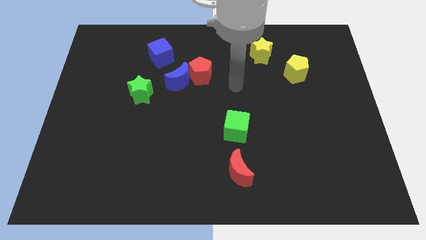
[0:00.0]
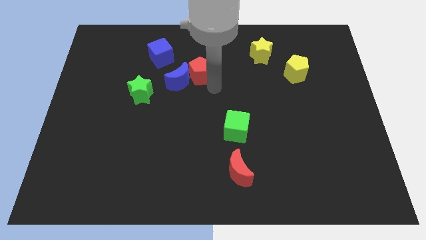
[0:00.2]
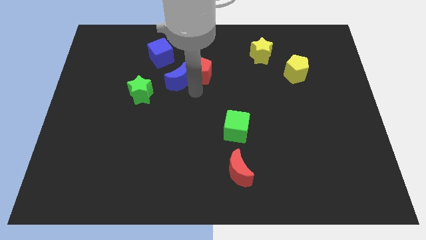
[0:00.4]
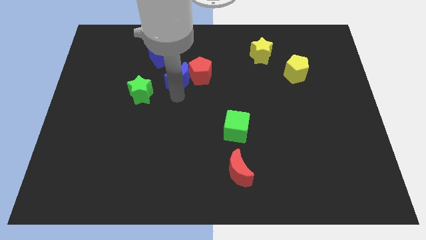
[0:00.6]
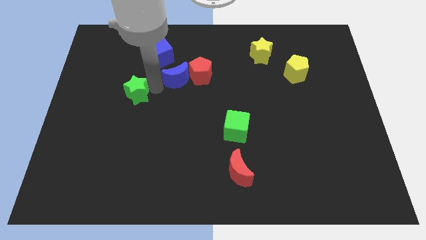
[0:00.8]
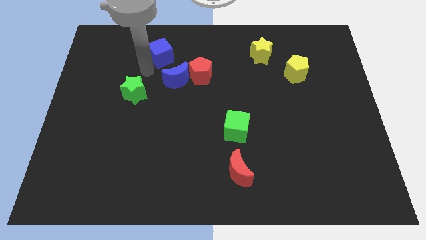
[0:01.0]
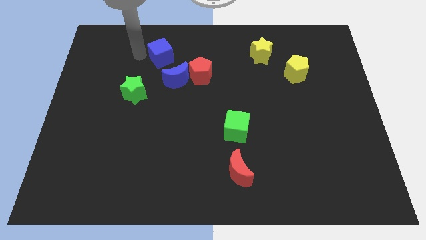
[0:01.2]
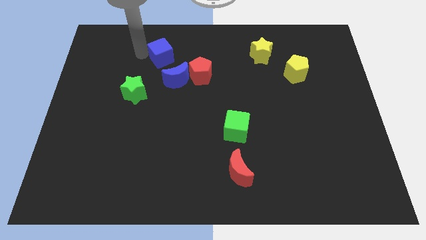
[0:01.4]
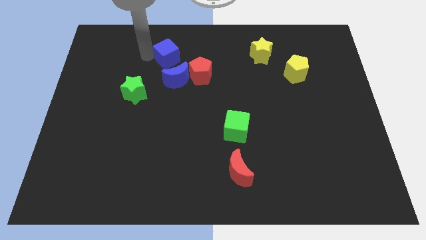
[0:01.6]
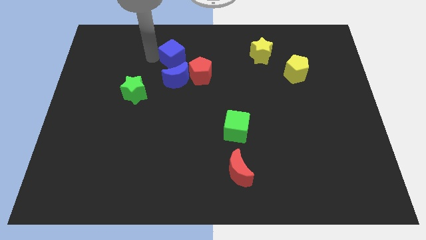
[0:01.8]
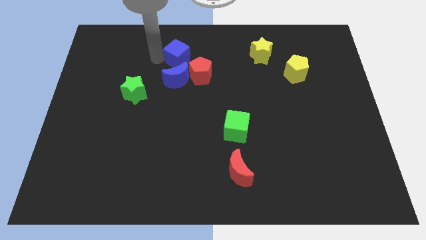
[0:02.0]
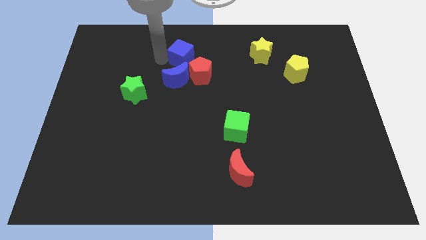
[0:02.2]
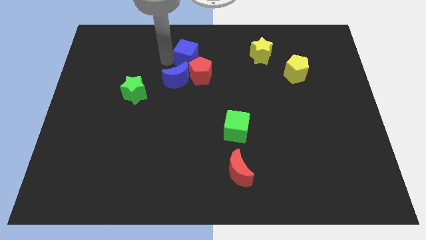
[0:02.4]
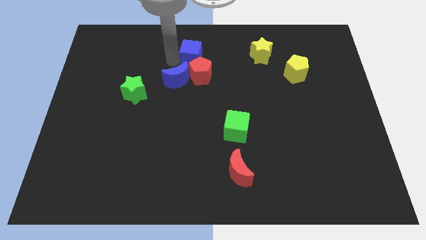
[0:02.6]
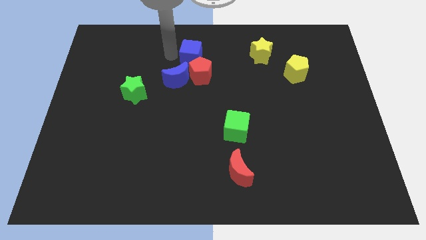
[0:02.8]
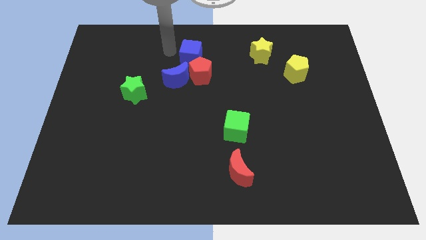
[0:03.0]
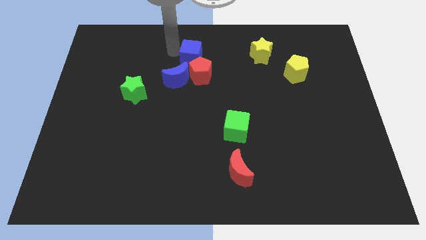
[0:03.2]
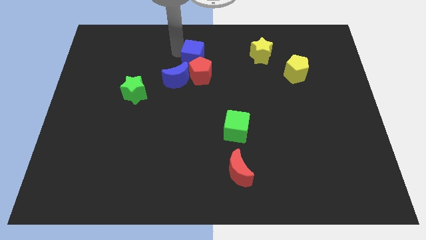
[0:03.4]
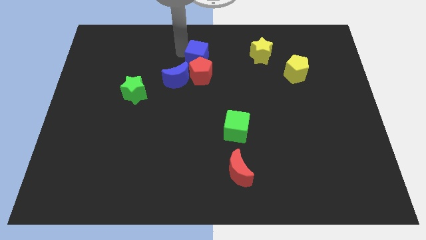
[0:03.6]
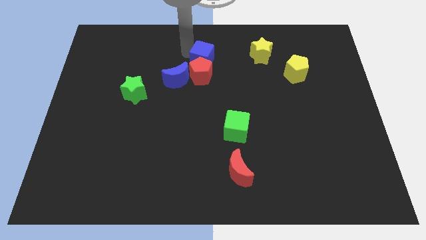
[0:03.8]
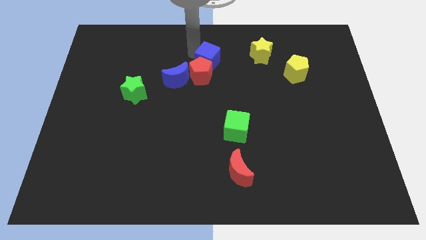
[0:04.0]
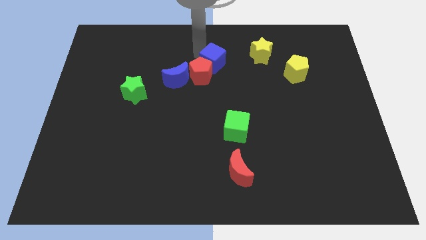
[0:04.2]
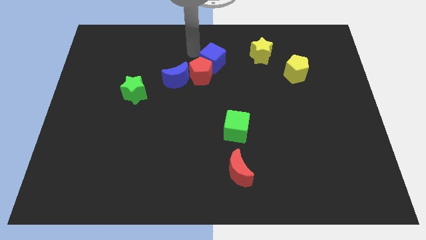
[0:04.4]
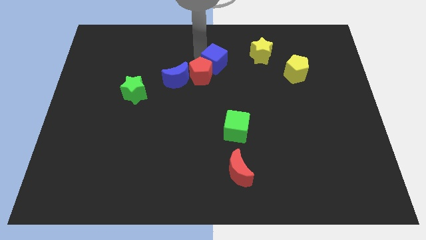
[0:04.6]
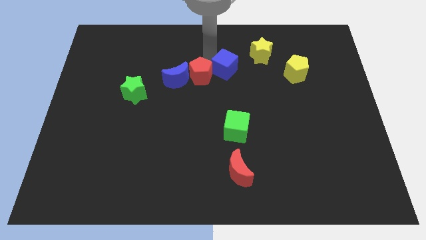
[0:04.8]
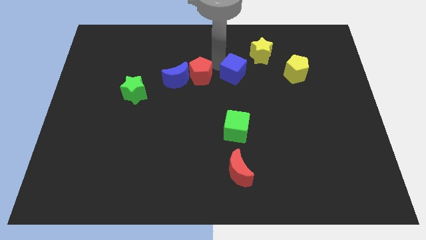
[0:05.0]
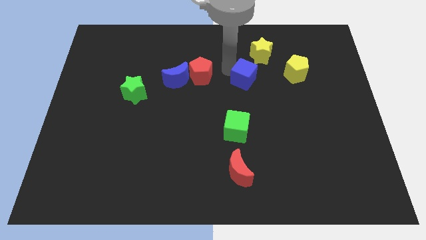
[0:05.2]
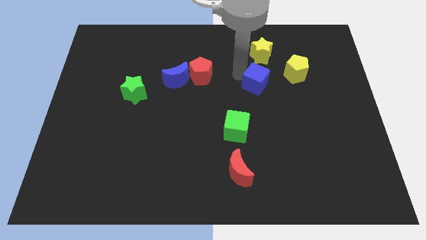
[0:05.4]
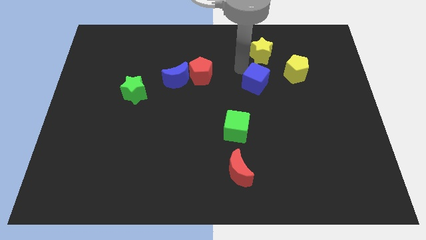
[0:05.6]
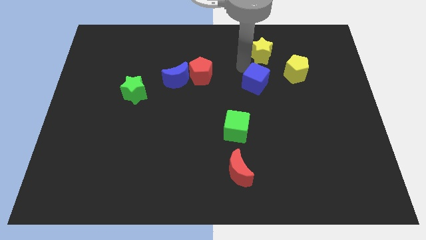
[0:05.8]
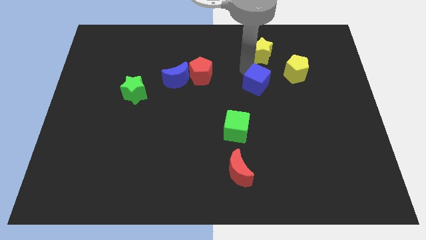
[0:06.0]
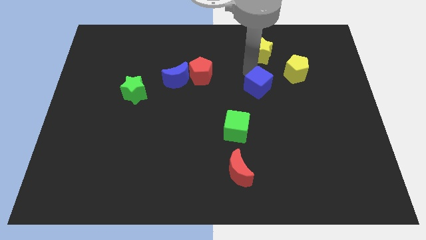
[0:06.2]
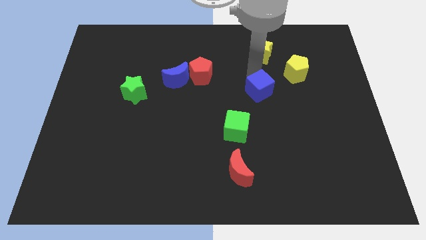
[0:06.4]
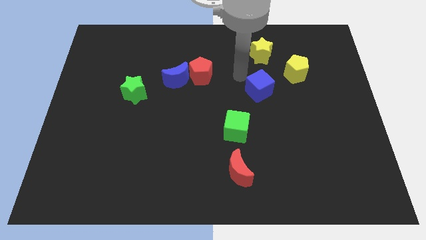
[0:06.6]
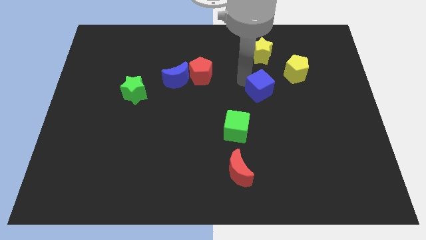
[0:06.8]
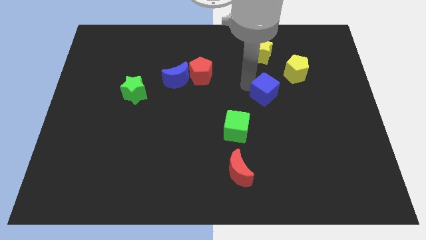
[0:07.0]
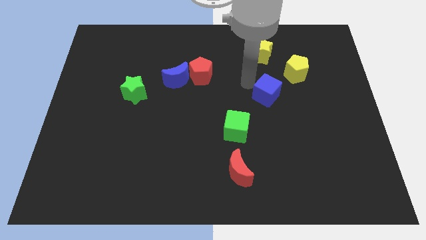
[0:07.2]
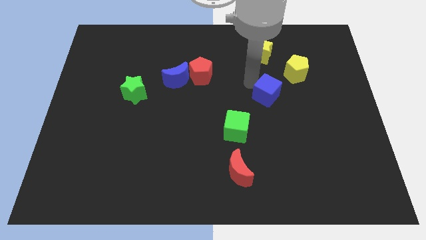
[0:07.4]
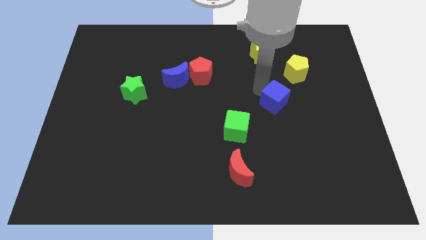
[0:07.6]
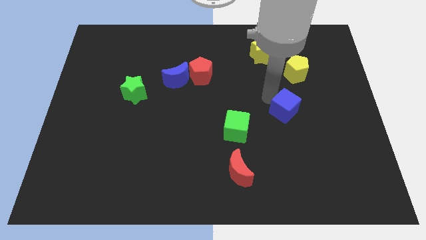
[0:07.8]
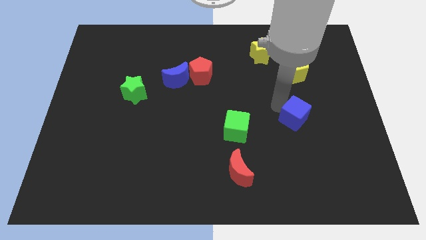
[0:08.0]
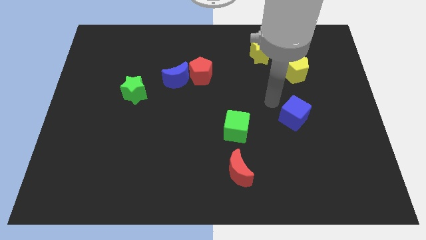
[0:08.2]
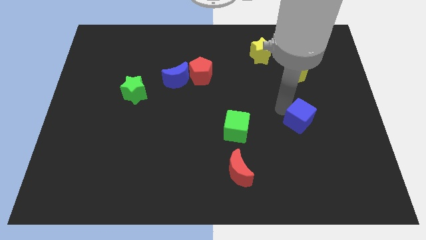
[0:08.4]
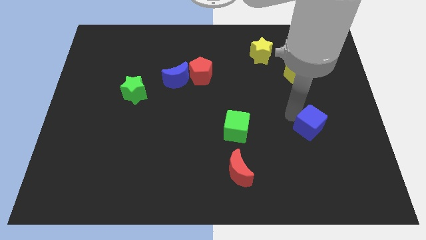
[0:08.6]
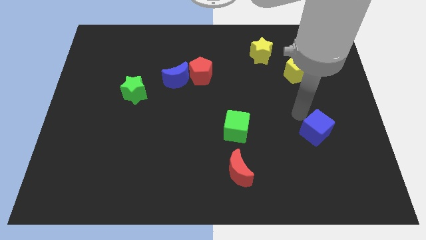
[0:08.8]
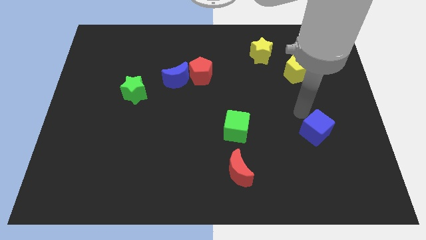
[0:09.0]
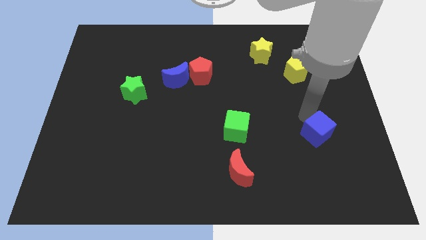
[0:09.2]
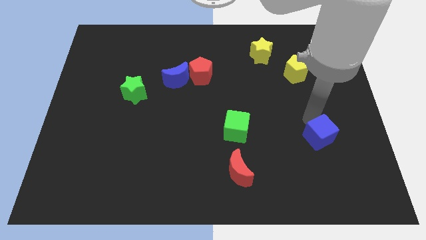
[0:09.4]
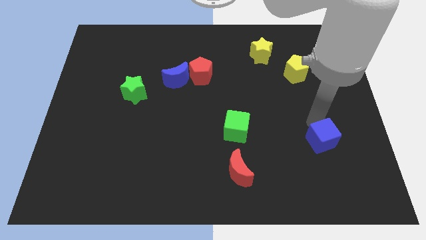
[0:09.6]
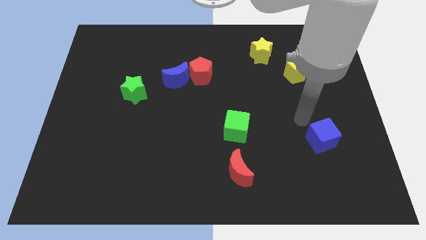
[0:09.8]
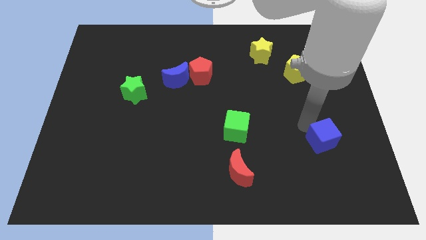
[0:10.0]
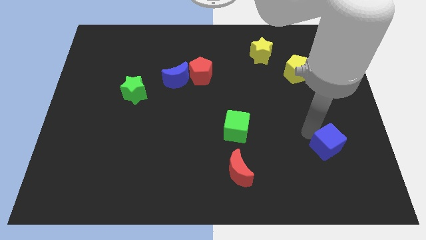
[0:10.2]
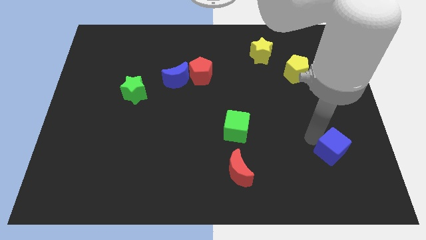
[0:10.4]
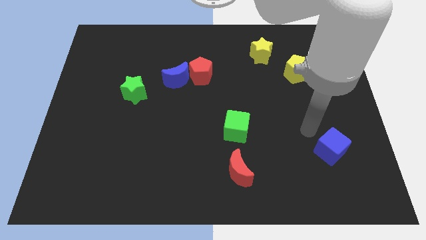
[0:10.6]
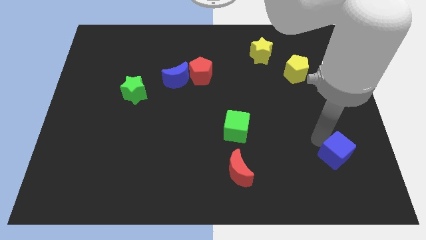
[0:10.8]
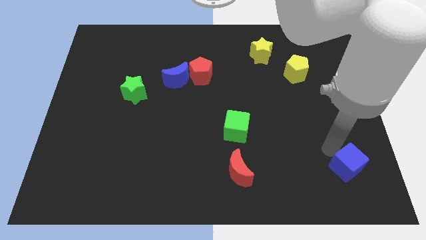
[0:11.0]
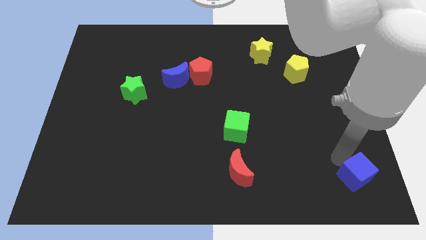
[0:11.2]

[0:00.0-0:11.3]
push the blue cube to the lower right corner
